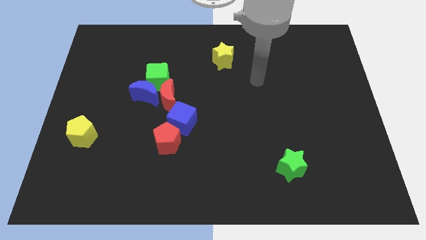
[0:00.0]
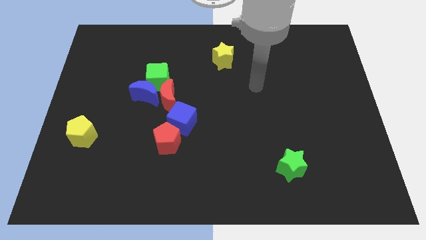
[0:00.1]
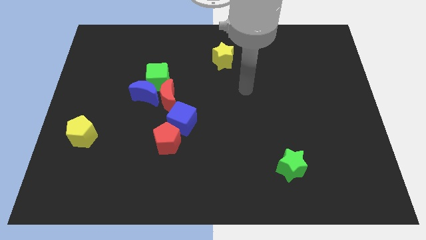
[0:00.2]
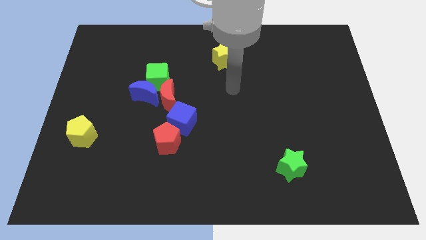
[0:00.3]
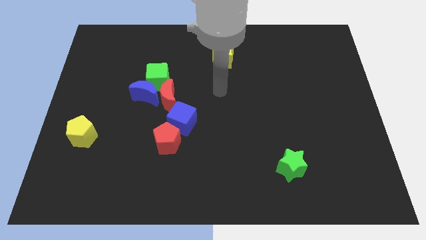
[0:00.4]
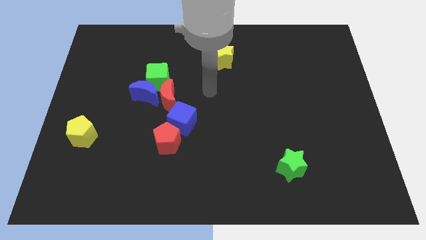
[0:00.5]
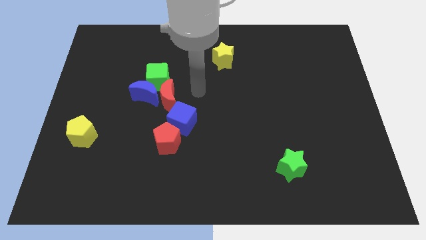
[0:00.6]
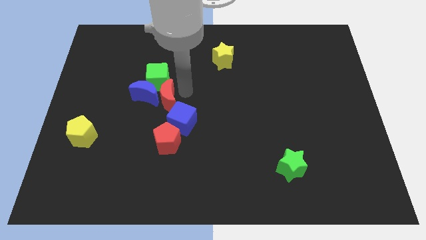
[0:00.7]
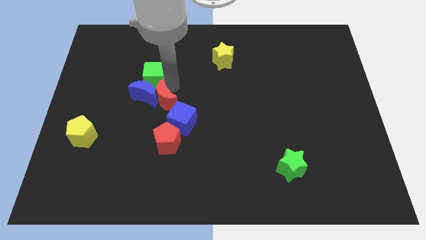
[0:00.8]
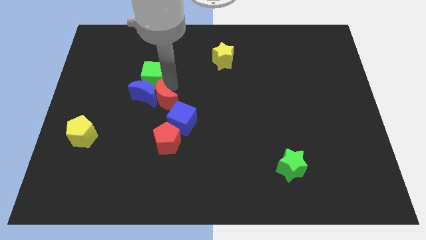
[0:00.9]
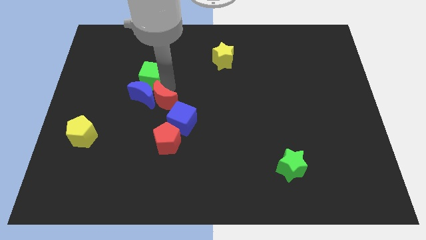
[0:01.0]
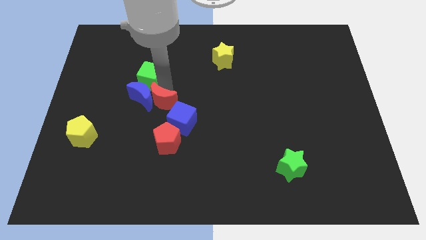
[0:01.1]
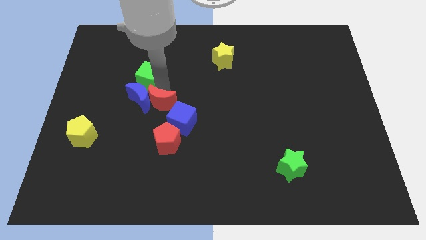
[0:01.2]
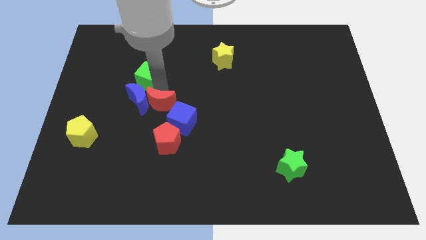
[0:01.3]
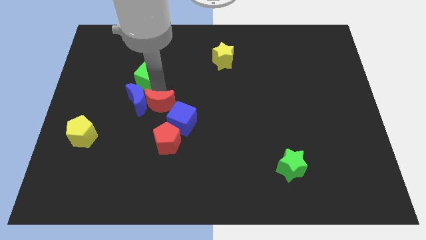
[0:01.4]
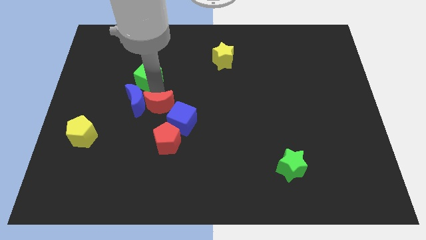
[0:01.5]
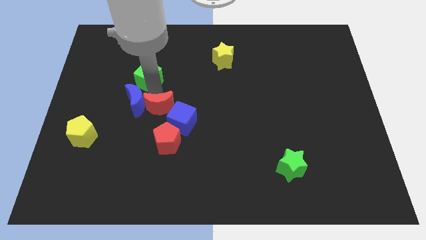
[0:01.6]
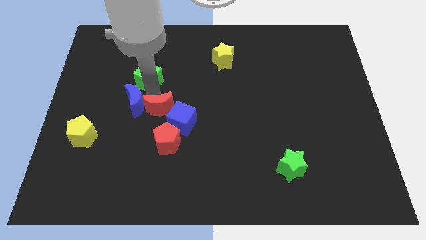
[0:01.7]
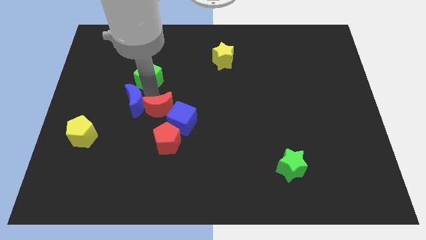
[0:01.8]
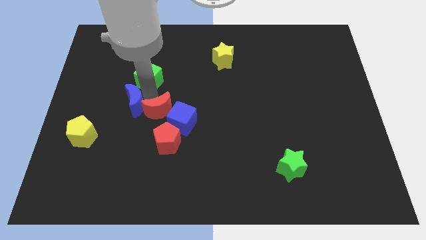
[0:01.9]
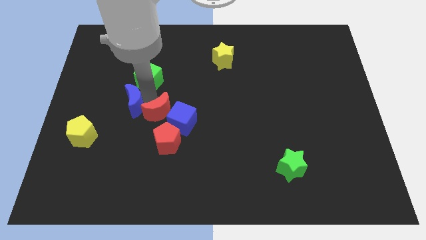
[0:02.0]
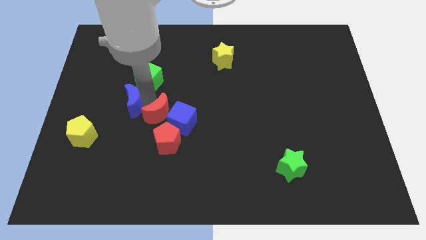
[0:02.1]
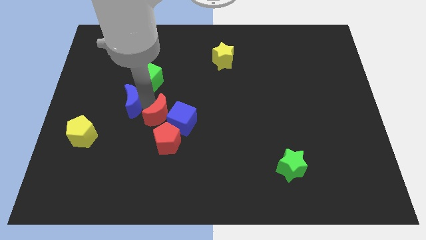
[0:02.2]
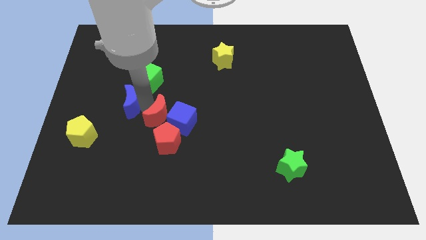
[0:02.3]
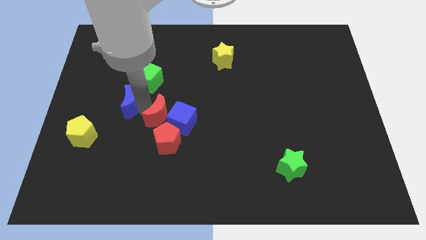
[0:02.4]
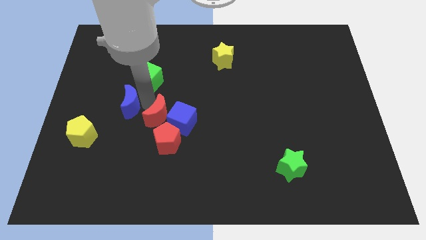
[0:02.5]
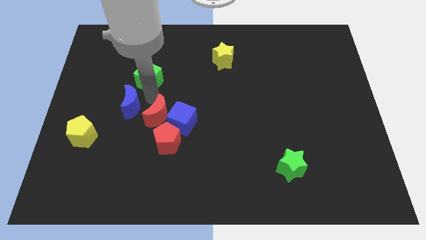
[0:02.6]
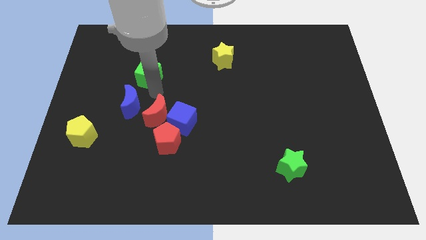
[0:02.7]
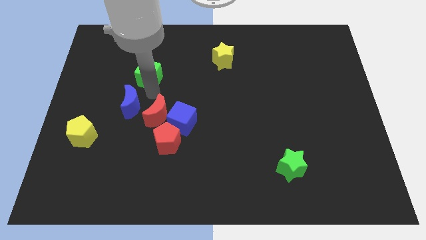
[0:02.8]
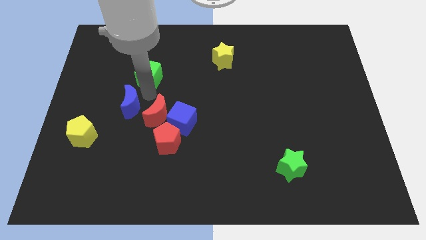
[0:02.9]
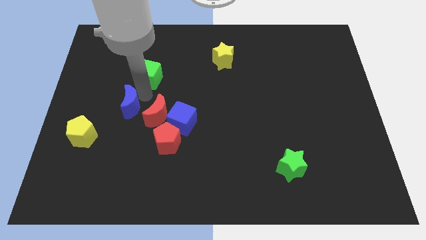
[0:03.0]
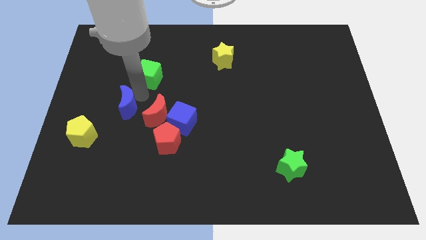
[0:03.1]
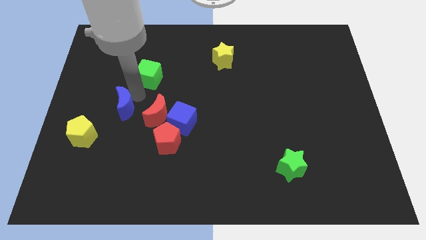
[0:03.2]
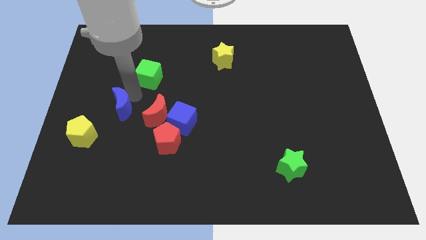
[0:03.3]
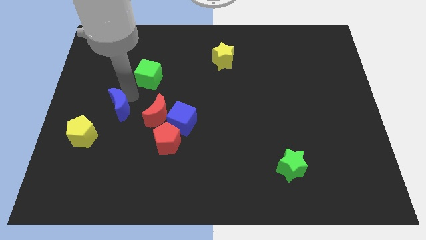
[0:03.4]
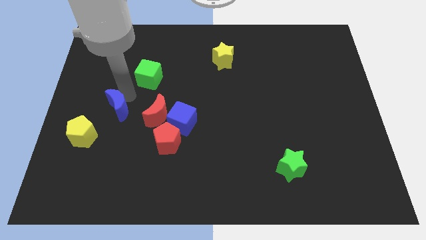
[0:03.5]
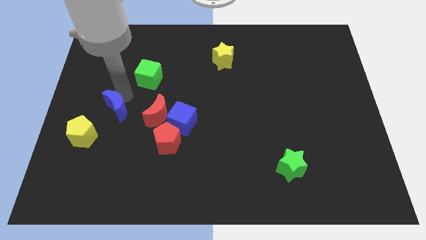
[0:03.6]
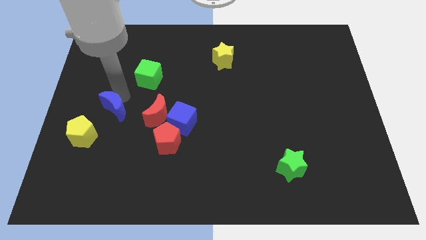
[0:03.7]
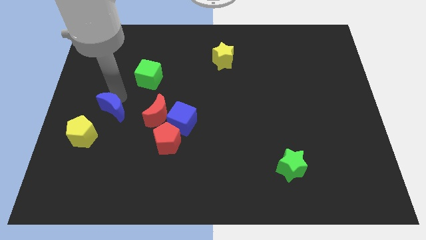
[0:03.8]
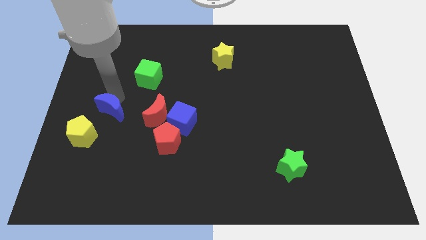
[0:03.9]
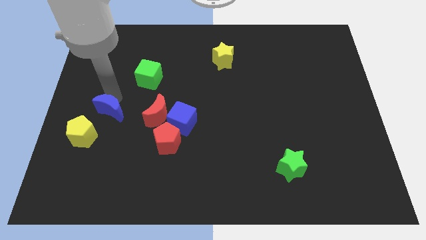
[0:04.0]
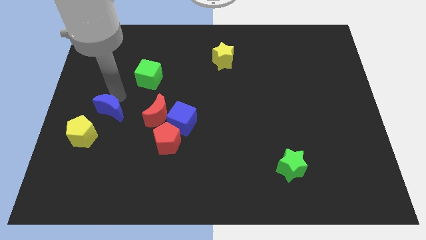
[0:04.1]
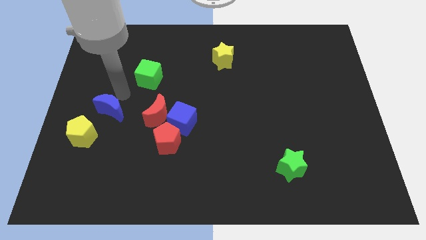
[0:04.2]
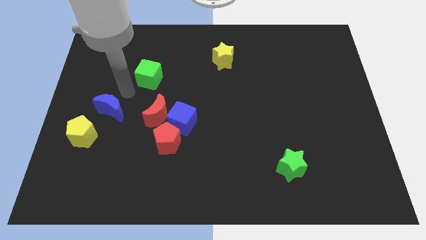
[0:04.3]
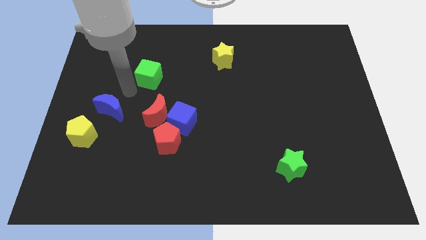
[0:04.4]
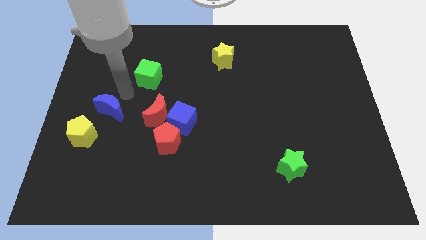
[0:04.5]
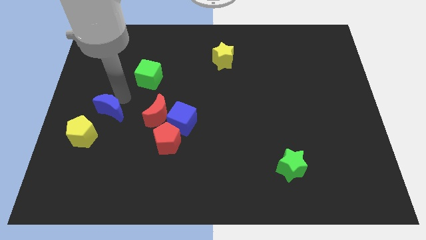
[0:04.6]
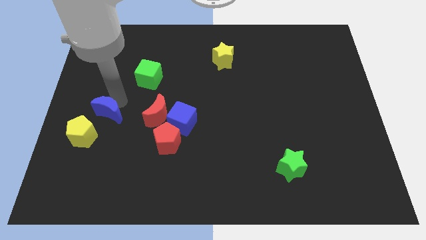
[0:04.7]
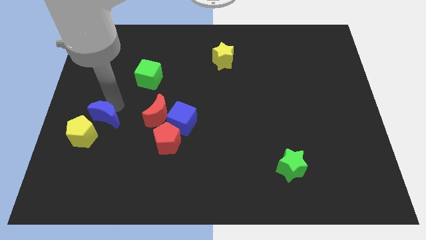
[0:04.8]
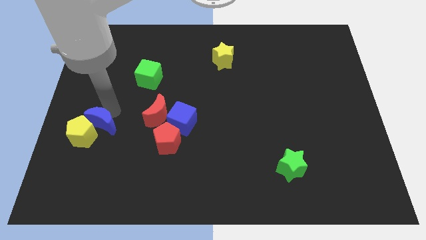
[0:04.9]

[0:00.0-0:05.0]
slide the blue moon to the yellow pentagon

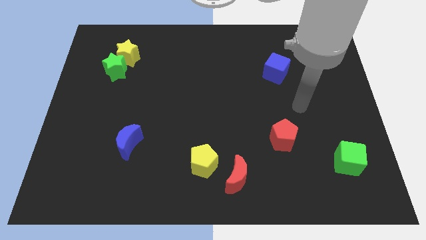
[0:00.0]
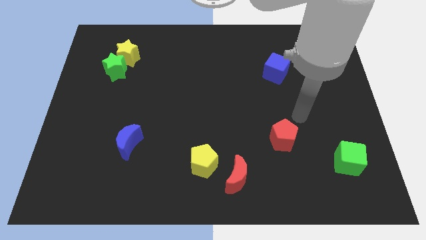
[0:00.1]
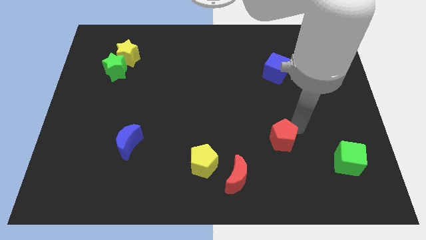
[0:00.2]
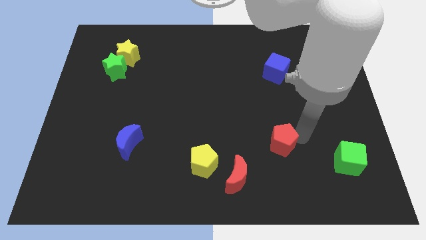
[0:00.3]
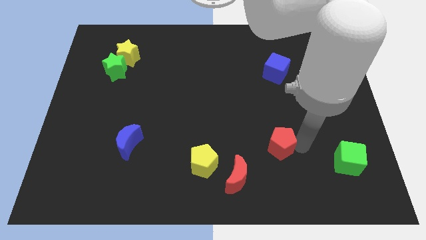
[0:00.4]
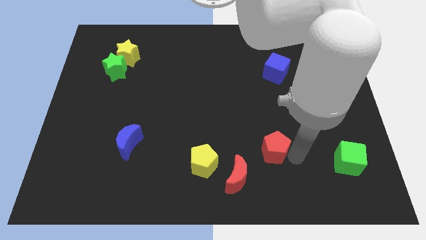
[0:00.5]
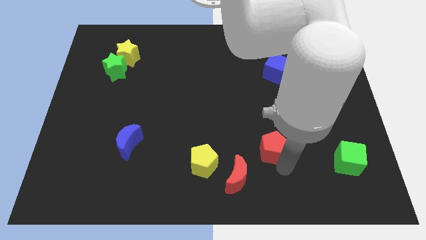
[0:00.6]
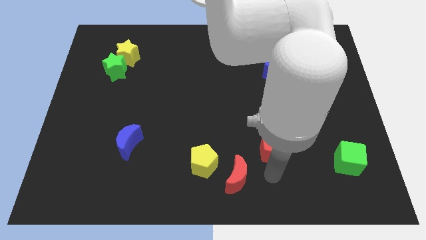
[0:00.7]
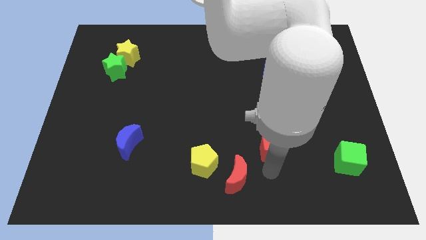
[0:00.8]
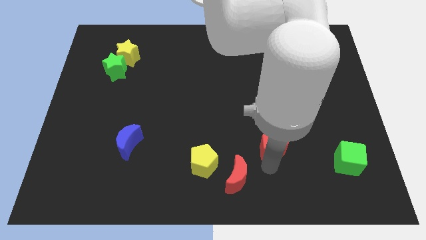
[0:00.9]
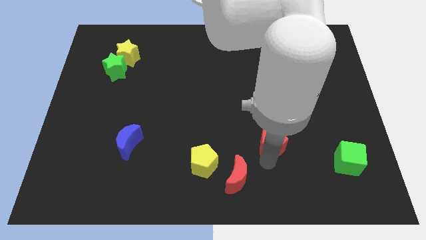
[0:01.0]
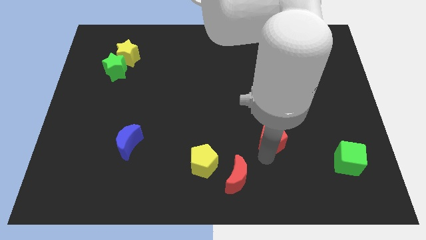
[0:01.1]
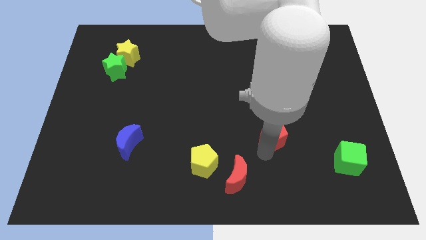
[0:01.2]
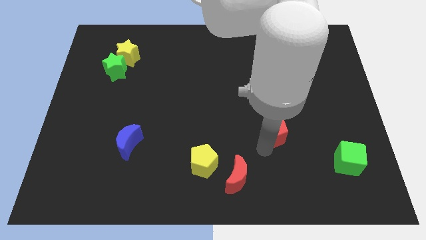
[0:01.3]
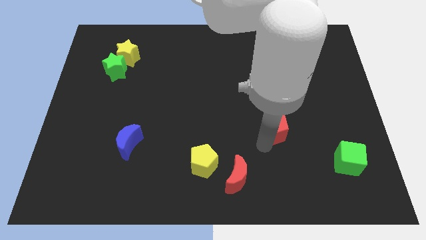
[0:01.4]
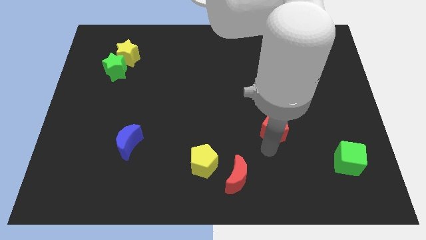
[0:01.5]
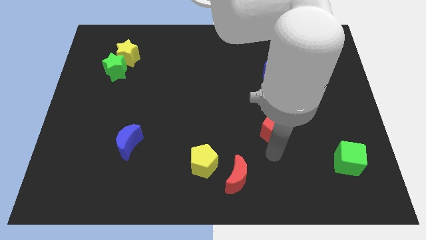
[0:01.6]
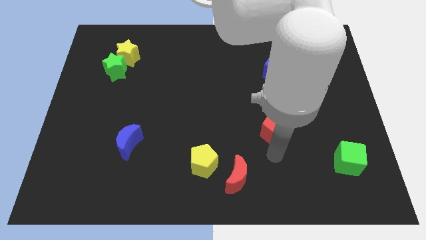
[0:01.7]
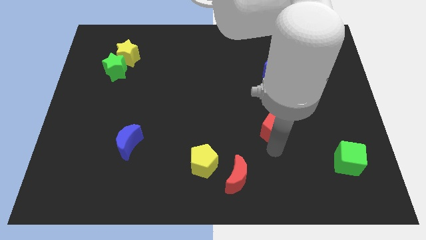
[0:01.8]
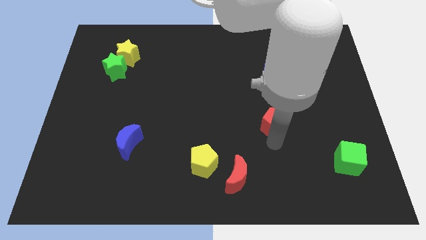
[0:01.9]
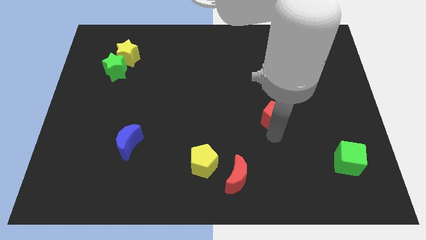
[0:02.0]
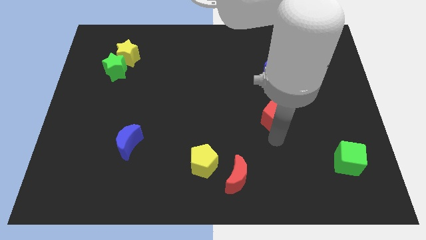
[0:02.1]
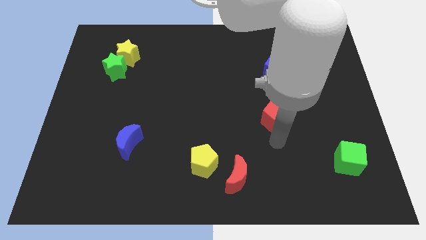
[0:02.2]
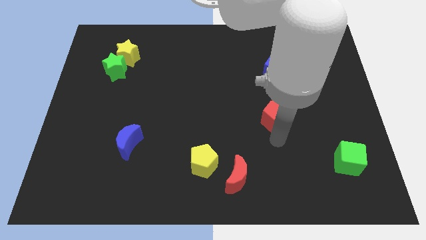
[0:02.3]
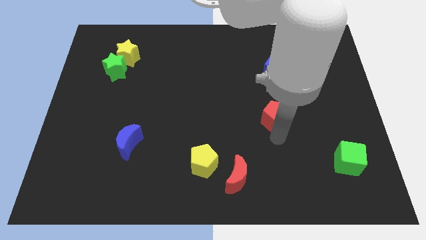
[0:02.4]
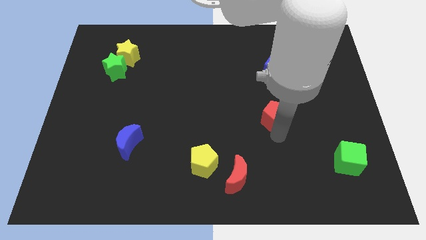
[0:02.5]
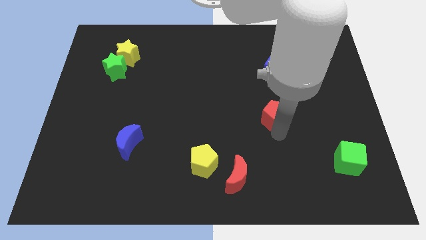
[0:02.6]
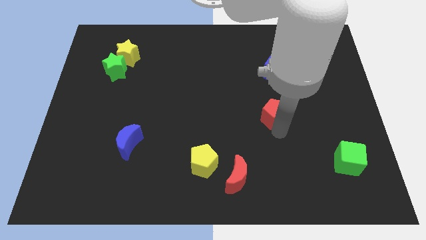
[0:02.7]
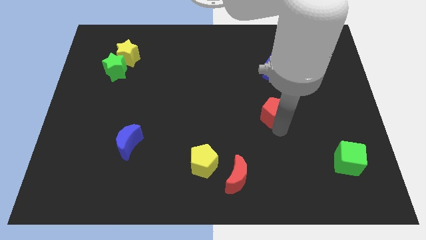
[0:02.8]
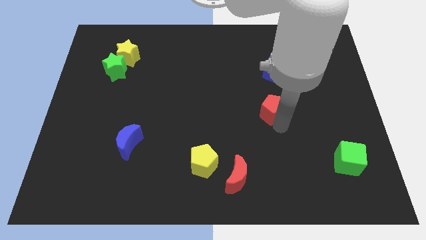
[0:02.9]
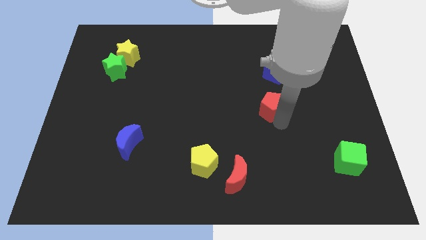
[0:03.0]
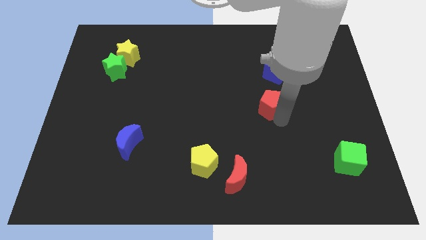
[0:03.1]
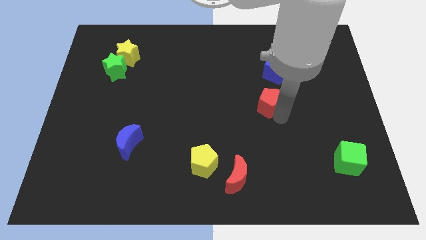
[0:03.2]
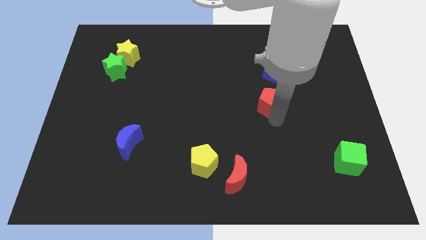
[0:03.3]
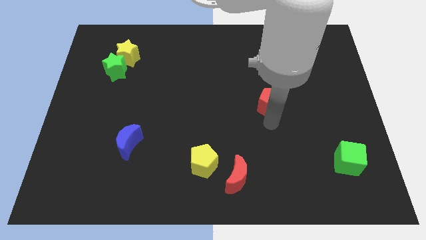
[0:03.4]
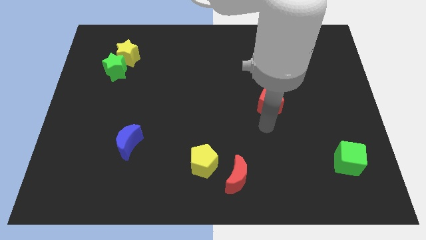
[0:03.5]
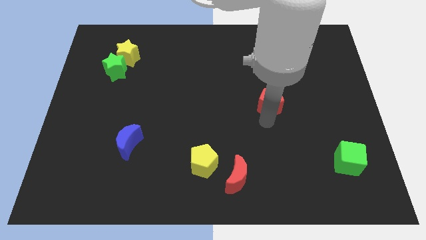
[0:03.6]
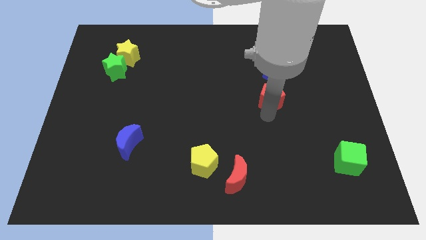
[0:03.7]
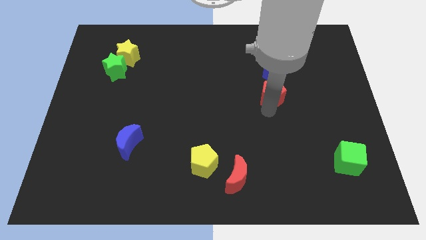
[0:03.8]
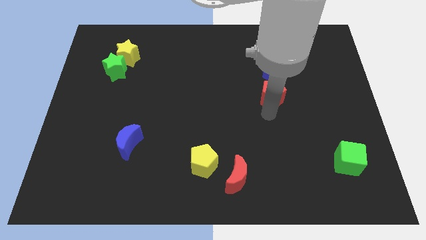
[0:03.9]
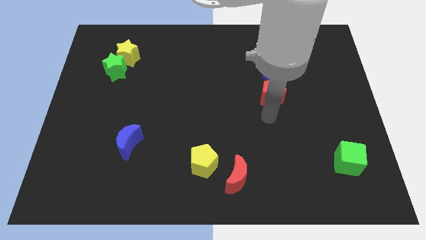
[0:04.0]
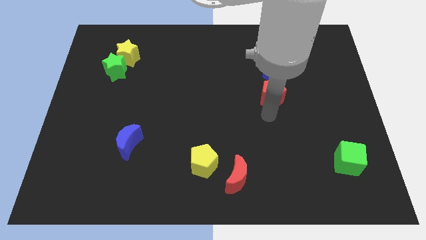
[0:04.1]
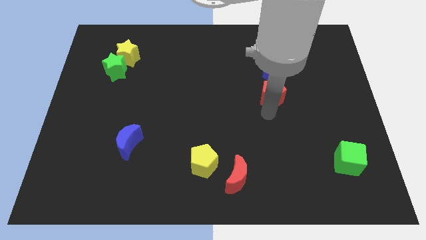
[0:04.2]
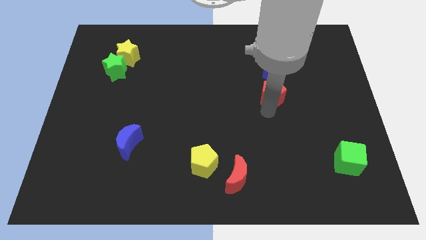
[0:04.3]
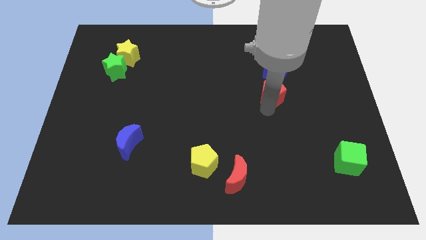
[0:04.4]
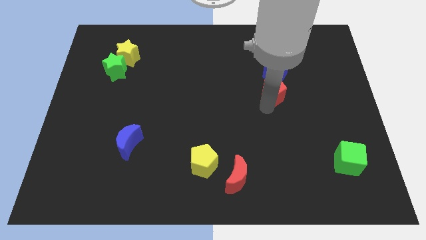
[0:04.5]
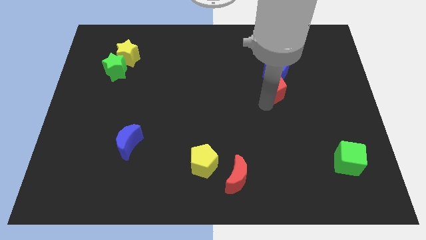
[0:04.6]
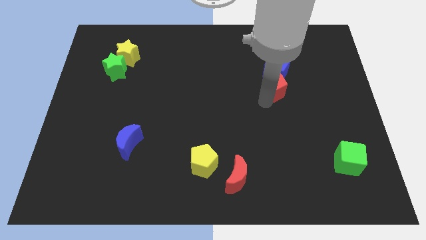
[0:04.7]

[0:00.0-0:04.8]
put the red pentagon close to the blue cube
